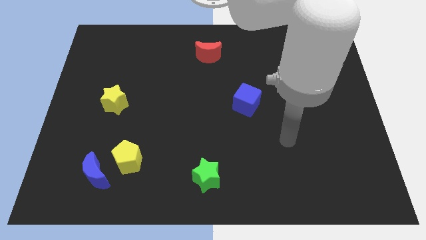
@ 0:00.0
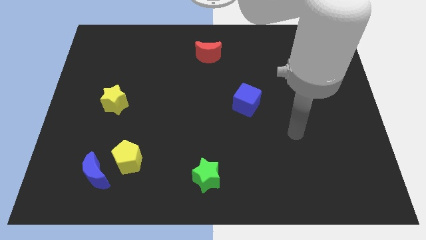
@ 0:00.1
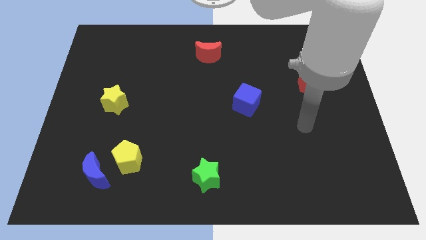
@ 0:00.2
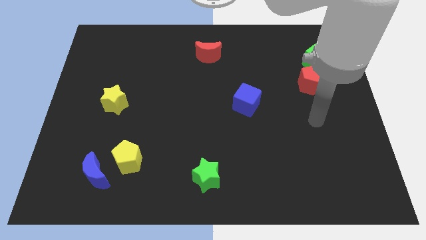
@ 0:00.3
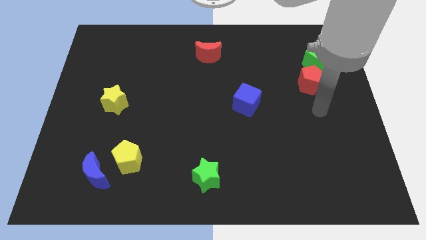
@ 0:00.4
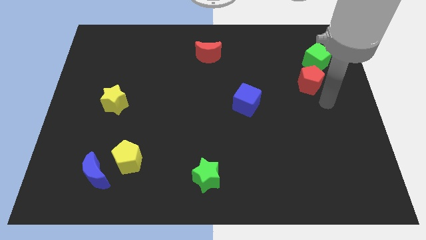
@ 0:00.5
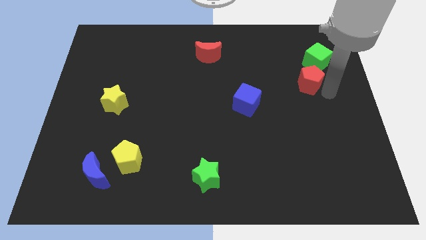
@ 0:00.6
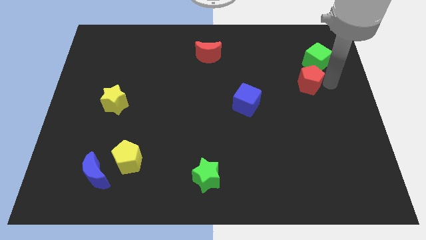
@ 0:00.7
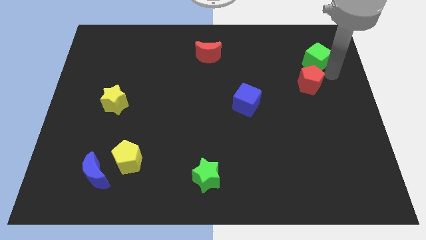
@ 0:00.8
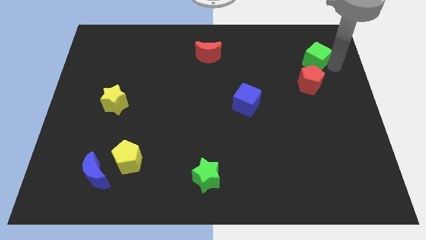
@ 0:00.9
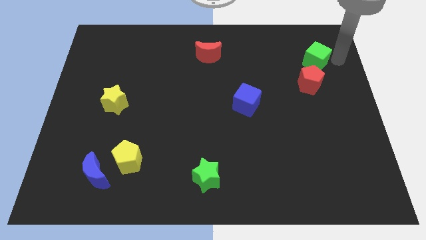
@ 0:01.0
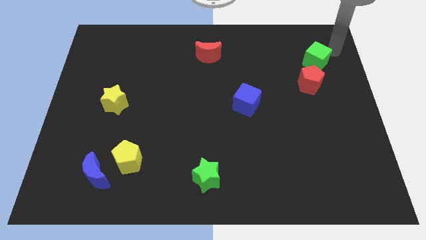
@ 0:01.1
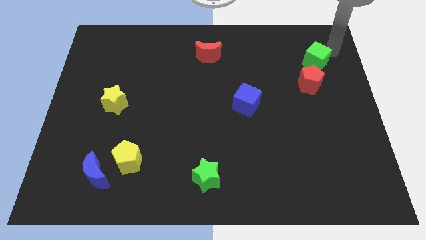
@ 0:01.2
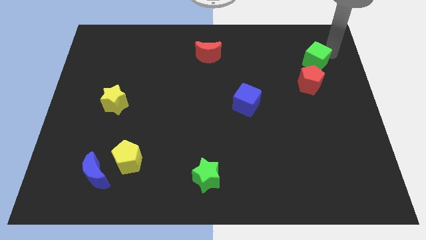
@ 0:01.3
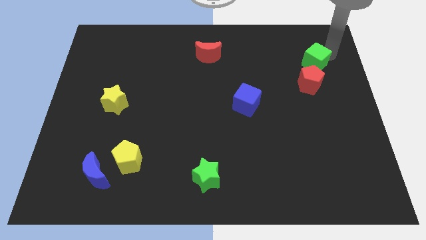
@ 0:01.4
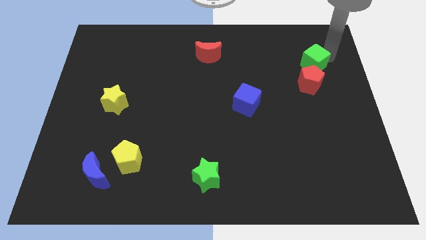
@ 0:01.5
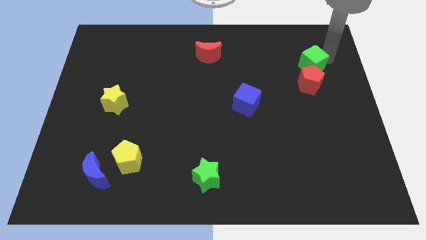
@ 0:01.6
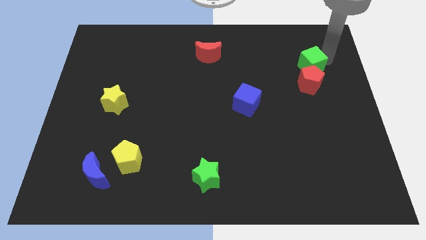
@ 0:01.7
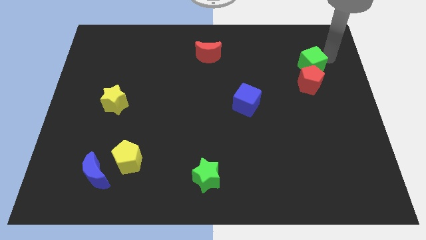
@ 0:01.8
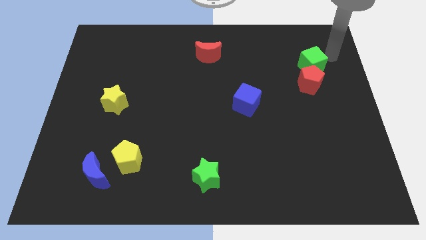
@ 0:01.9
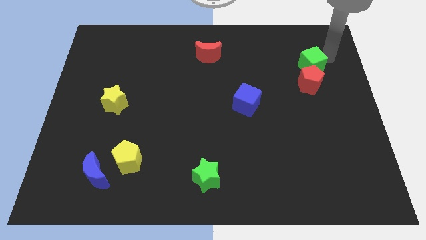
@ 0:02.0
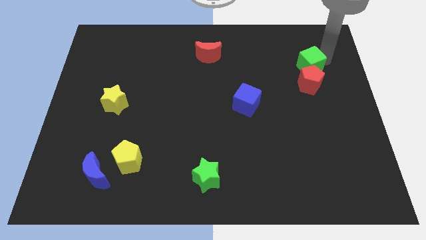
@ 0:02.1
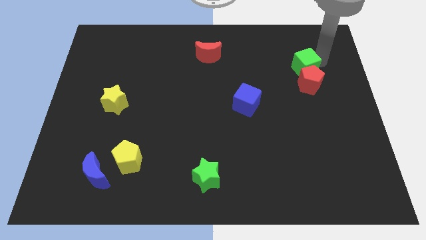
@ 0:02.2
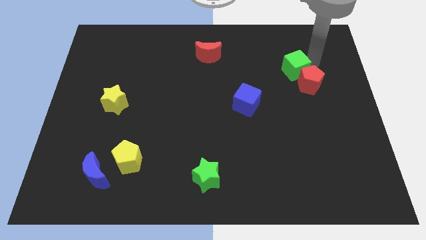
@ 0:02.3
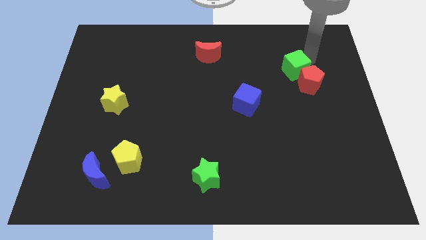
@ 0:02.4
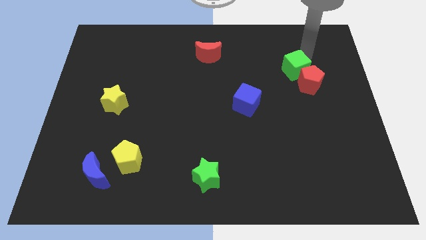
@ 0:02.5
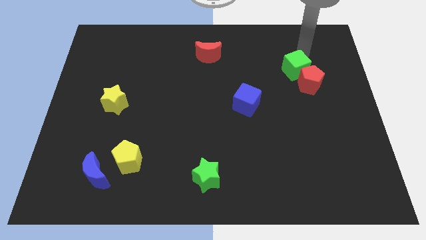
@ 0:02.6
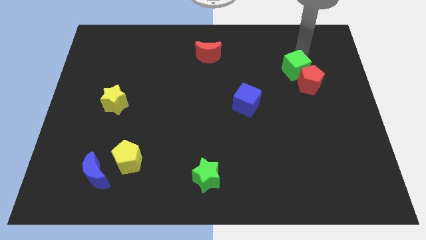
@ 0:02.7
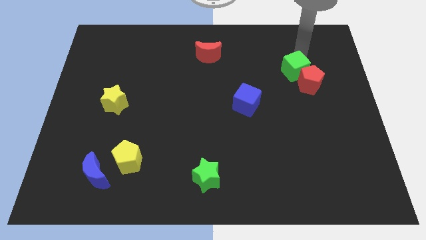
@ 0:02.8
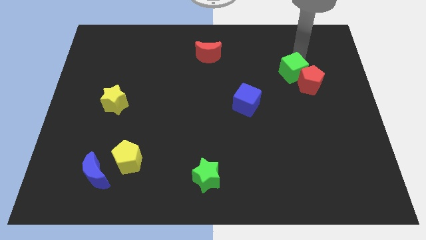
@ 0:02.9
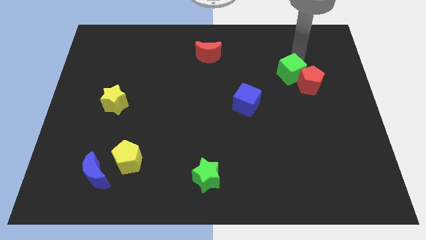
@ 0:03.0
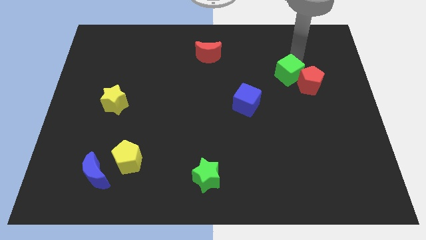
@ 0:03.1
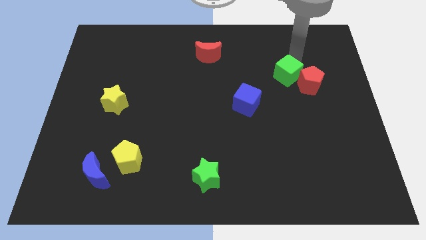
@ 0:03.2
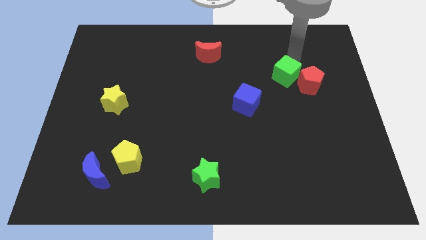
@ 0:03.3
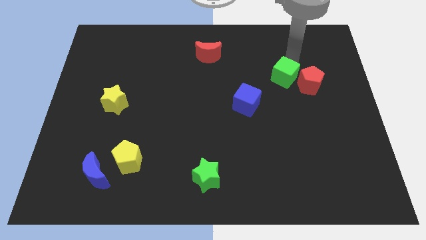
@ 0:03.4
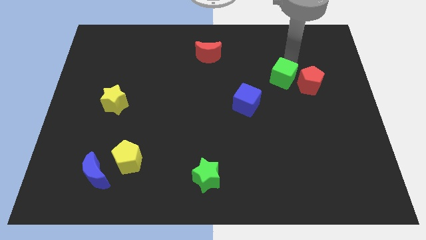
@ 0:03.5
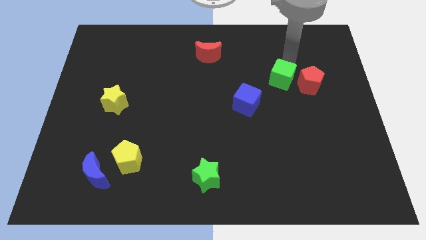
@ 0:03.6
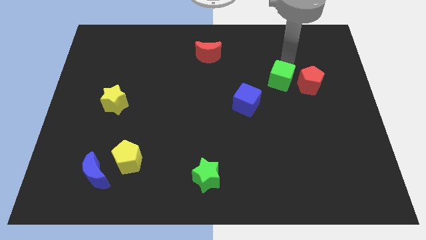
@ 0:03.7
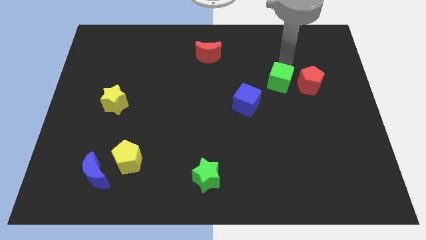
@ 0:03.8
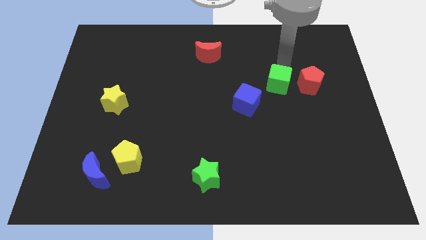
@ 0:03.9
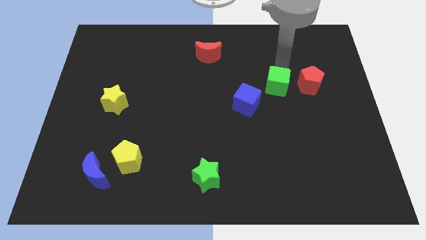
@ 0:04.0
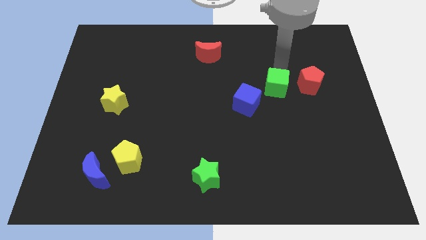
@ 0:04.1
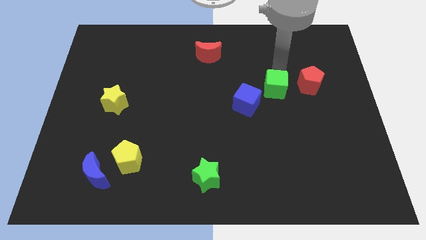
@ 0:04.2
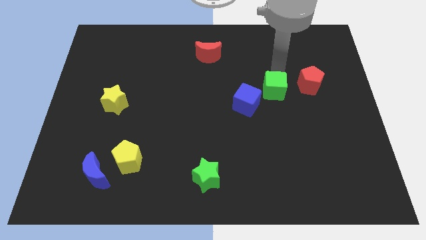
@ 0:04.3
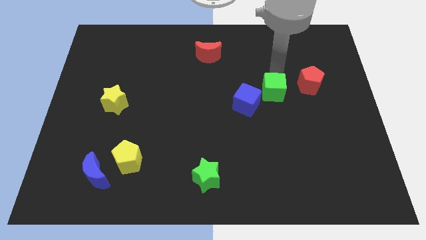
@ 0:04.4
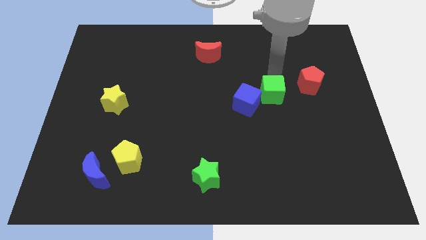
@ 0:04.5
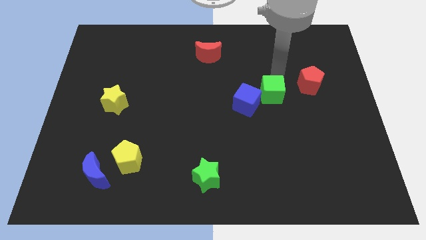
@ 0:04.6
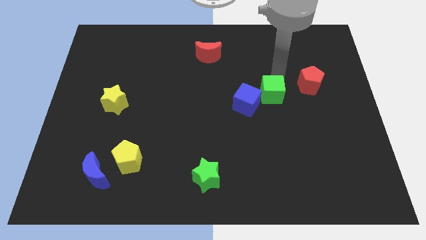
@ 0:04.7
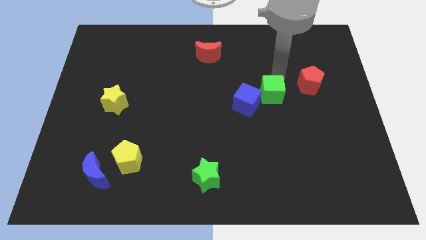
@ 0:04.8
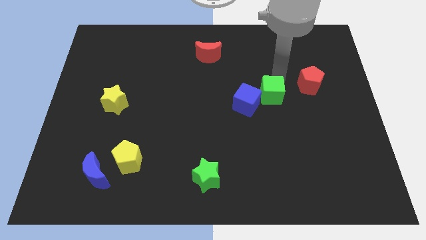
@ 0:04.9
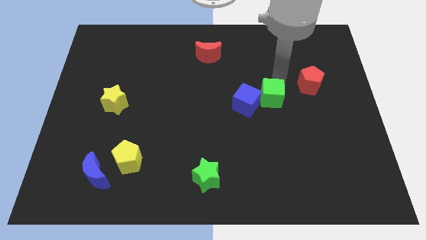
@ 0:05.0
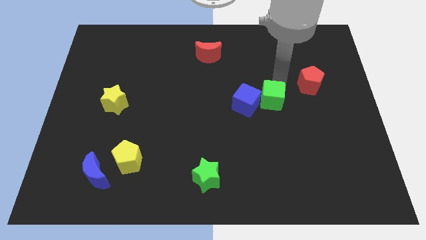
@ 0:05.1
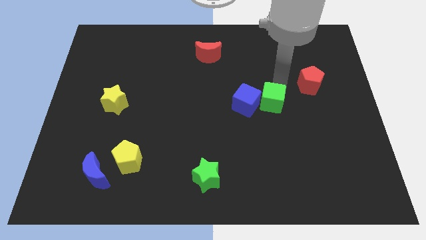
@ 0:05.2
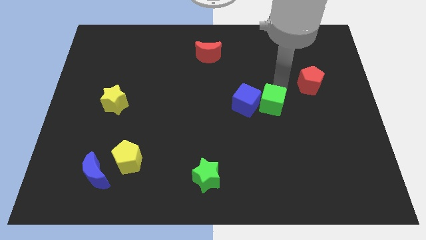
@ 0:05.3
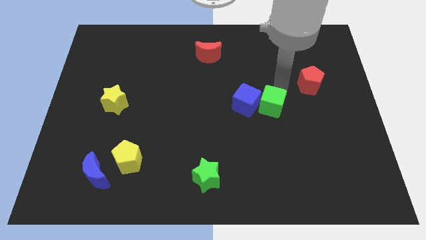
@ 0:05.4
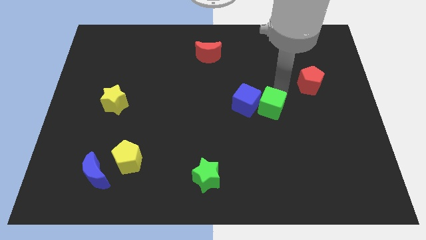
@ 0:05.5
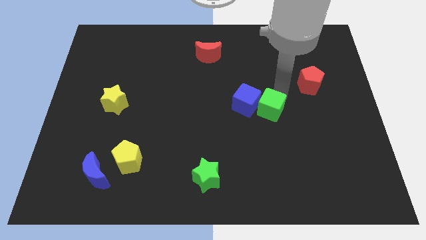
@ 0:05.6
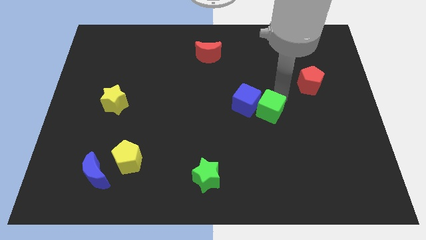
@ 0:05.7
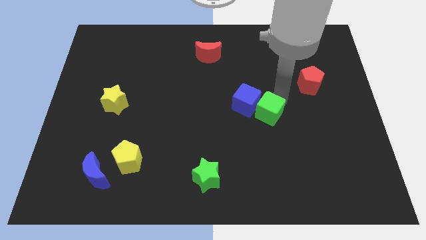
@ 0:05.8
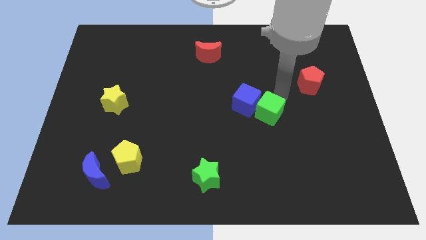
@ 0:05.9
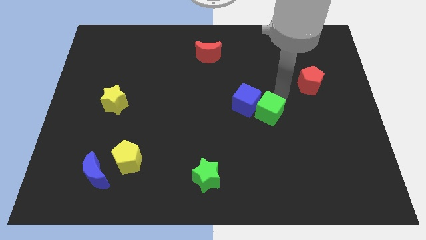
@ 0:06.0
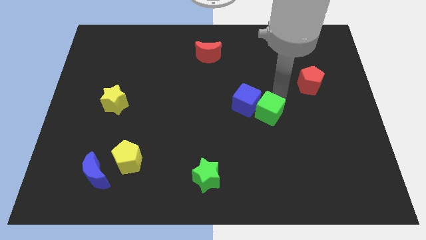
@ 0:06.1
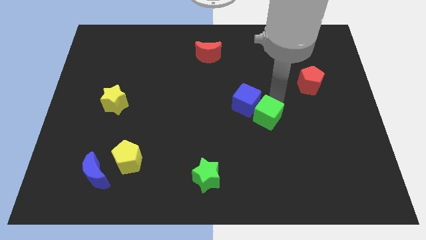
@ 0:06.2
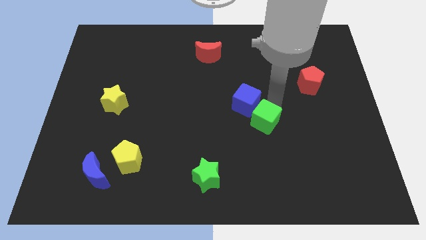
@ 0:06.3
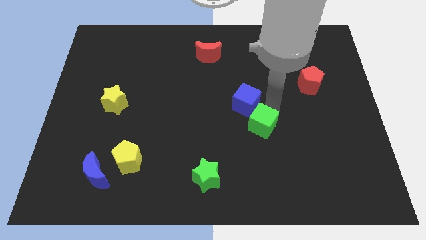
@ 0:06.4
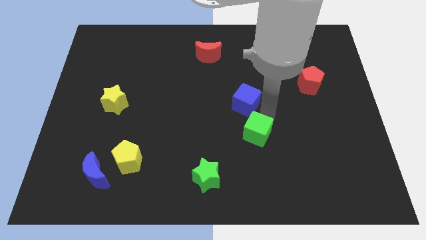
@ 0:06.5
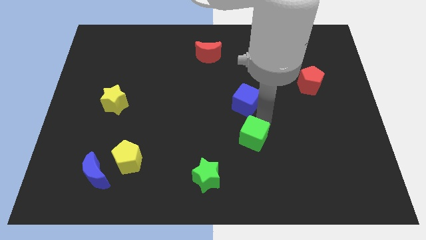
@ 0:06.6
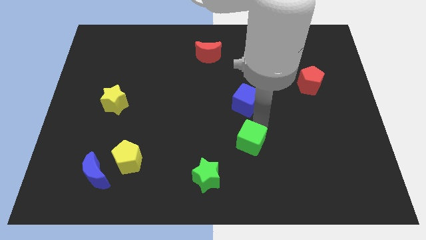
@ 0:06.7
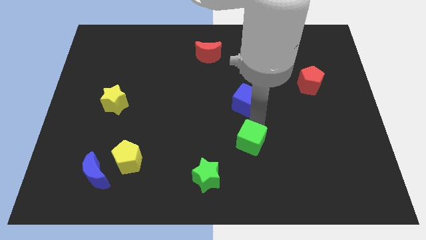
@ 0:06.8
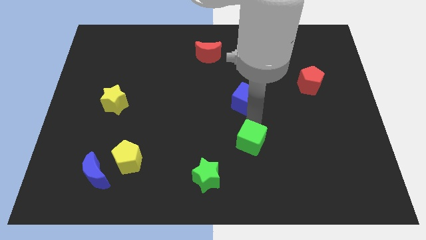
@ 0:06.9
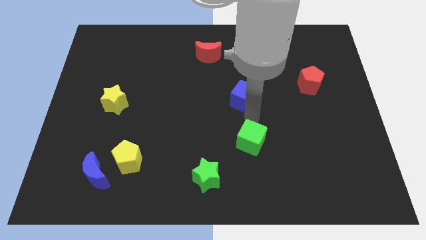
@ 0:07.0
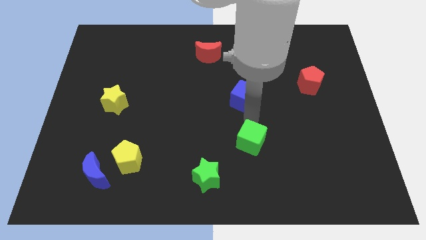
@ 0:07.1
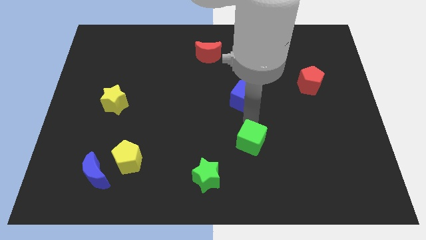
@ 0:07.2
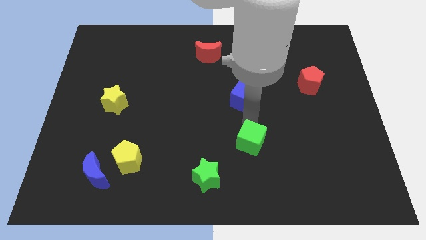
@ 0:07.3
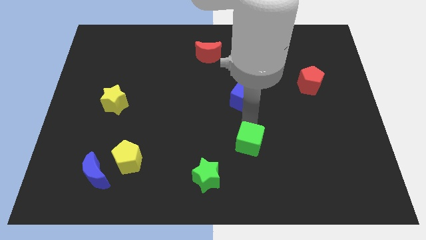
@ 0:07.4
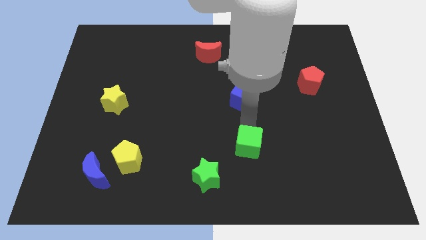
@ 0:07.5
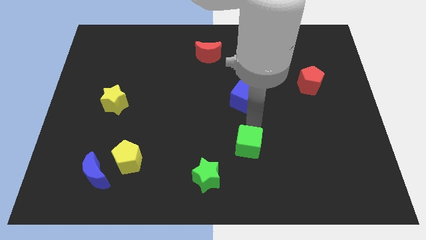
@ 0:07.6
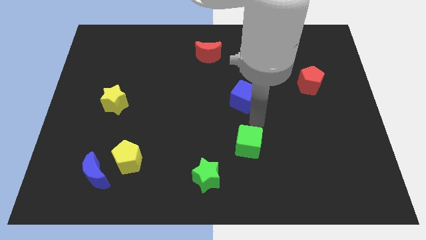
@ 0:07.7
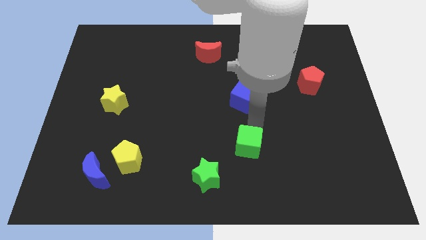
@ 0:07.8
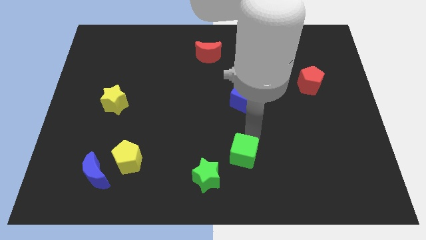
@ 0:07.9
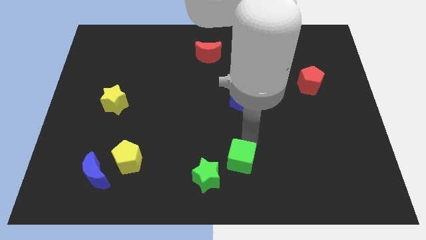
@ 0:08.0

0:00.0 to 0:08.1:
move the green cube to the bottom side
